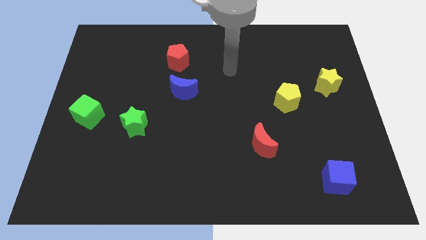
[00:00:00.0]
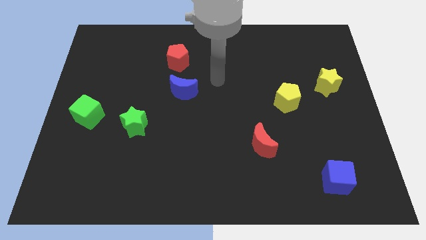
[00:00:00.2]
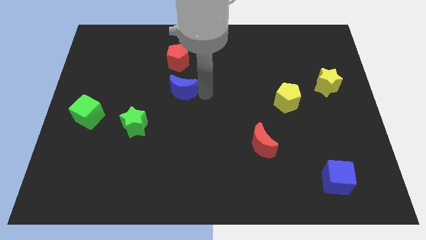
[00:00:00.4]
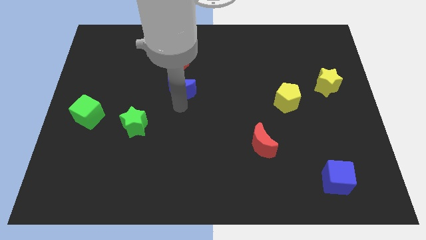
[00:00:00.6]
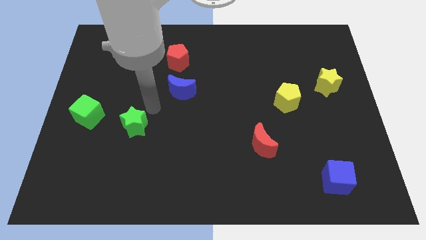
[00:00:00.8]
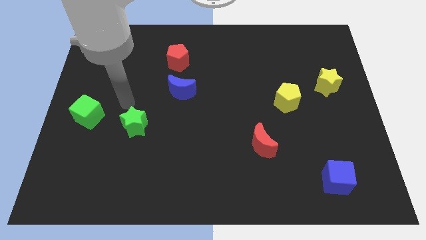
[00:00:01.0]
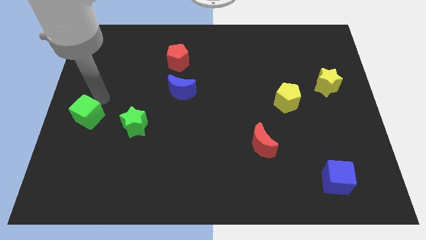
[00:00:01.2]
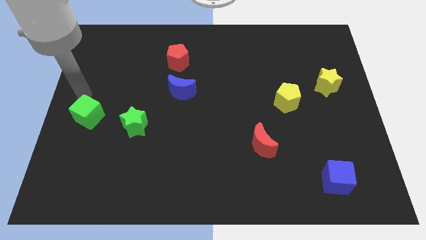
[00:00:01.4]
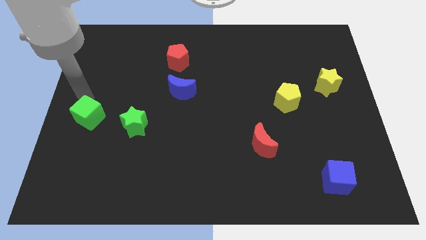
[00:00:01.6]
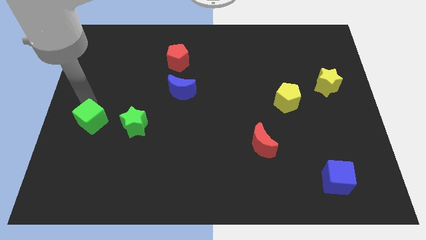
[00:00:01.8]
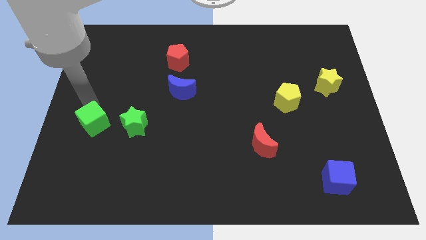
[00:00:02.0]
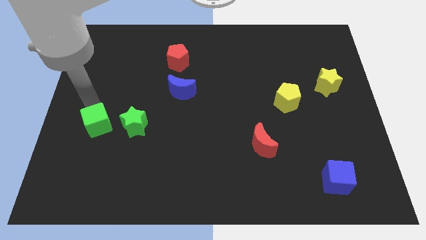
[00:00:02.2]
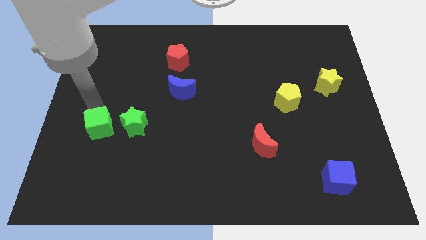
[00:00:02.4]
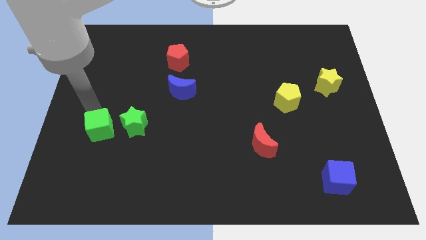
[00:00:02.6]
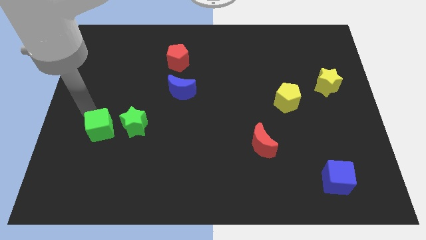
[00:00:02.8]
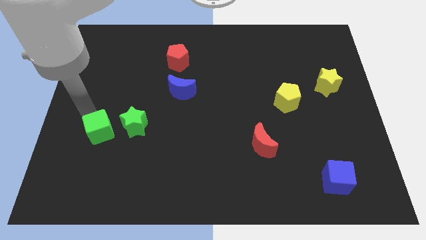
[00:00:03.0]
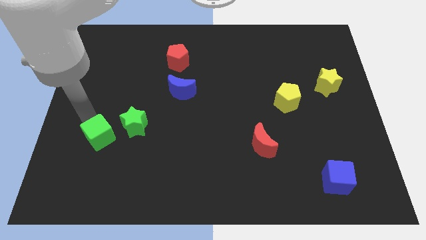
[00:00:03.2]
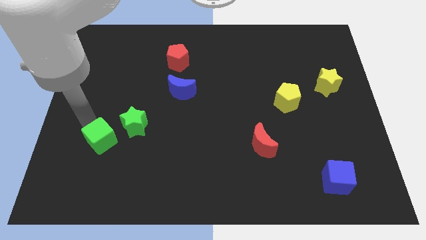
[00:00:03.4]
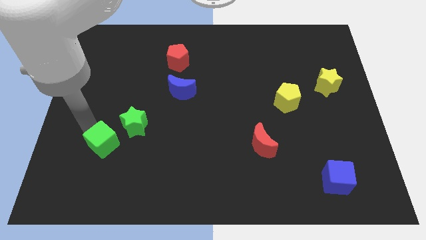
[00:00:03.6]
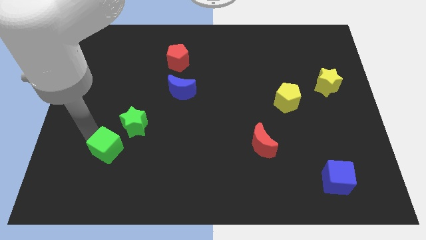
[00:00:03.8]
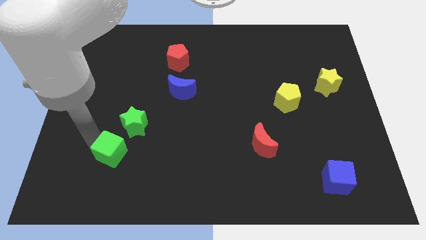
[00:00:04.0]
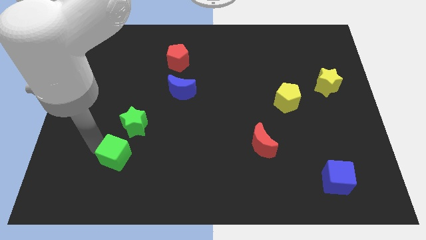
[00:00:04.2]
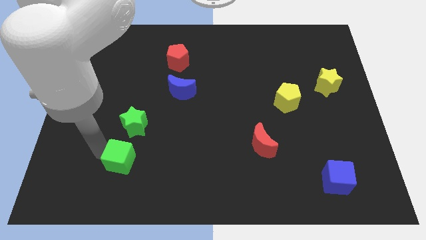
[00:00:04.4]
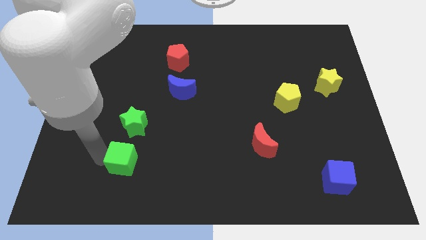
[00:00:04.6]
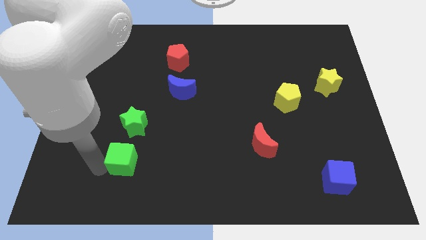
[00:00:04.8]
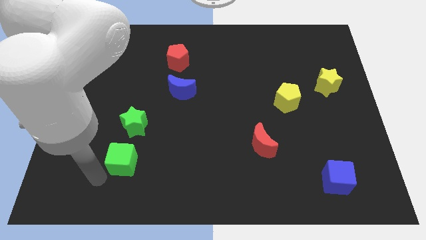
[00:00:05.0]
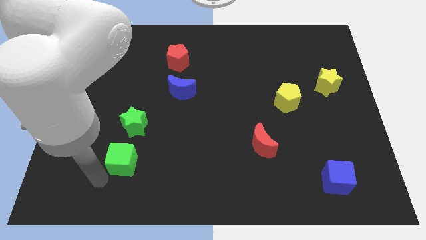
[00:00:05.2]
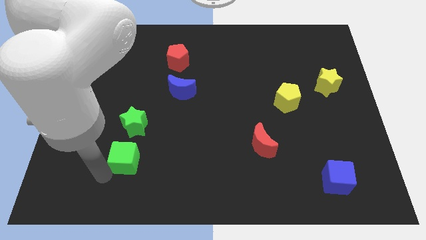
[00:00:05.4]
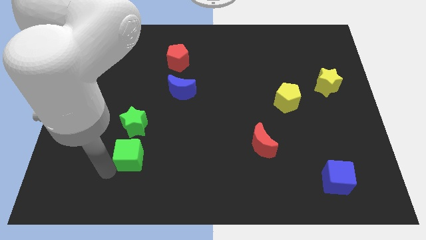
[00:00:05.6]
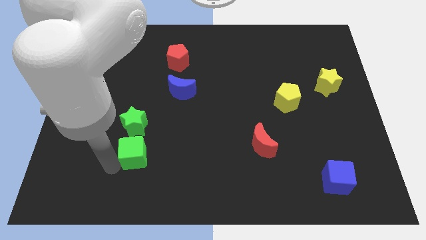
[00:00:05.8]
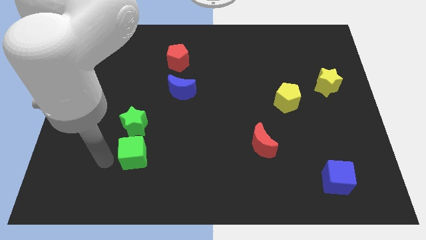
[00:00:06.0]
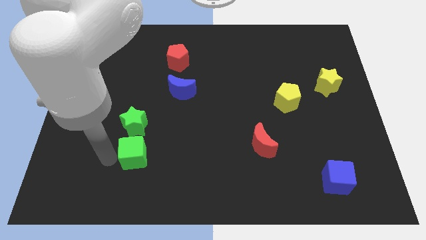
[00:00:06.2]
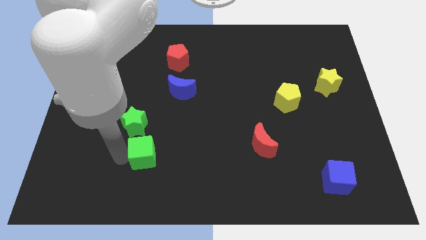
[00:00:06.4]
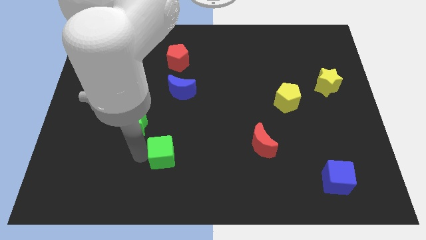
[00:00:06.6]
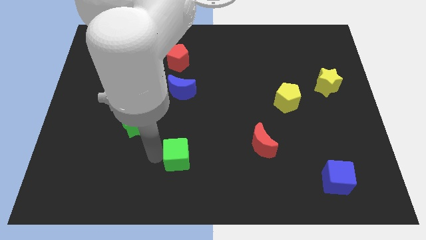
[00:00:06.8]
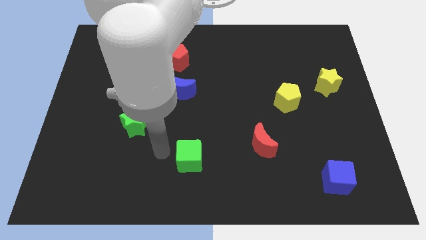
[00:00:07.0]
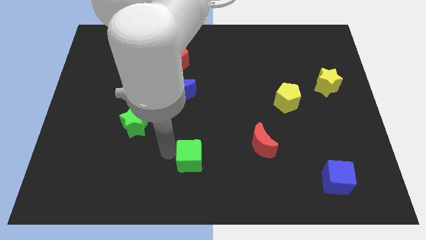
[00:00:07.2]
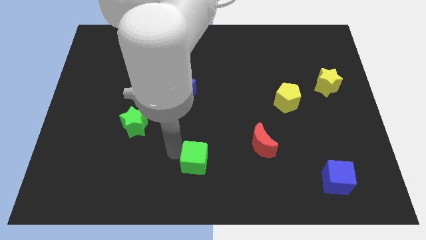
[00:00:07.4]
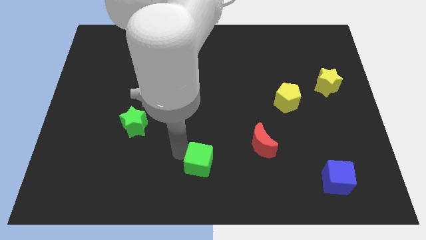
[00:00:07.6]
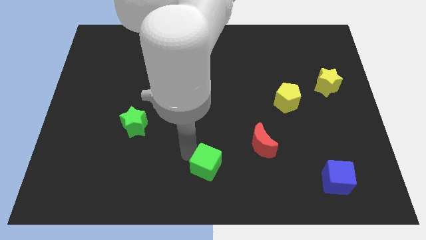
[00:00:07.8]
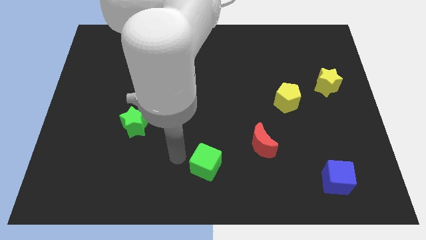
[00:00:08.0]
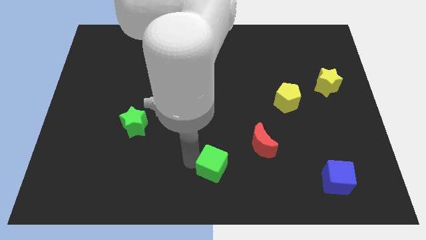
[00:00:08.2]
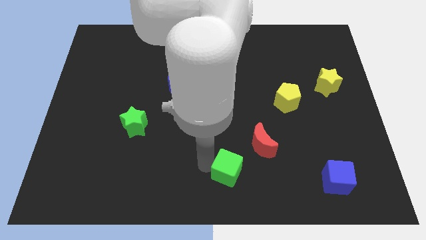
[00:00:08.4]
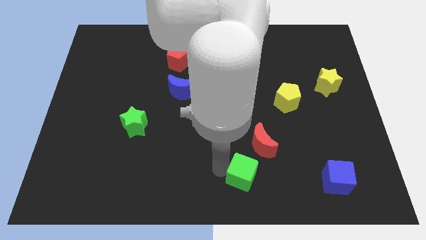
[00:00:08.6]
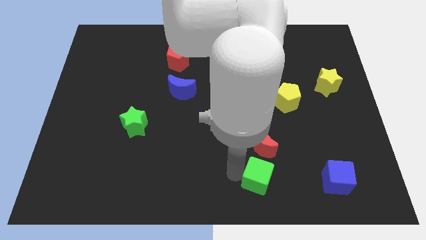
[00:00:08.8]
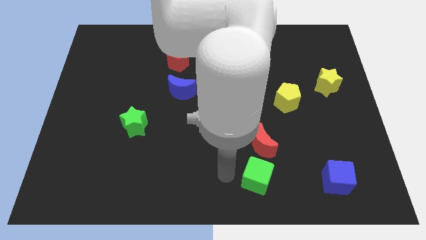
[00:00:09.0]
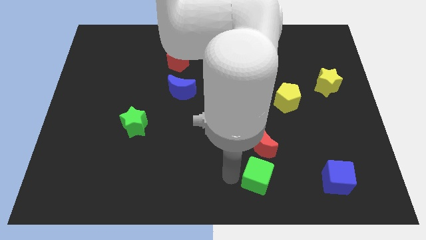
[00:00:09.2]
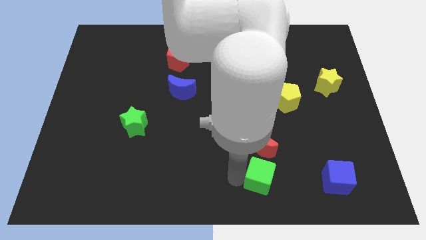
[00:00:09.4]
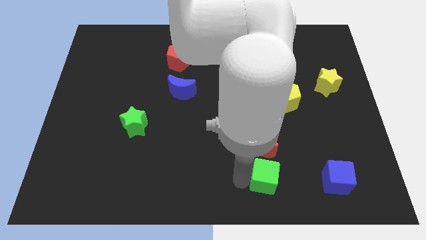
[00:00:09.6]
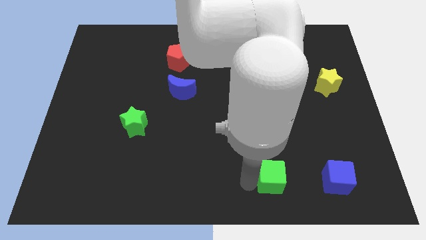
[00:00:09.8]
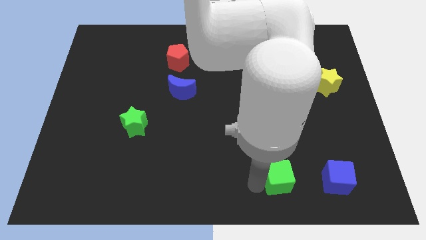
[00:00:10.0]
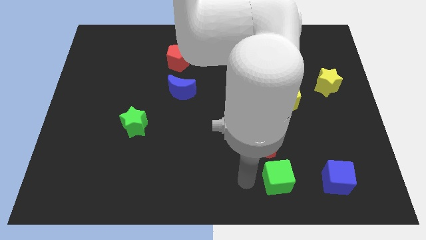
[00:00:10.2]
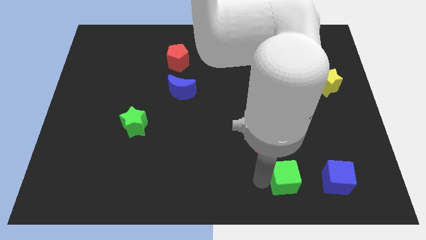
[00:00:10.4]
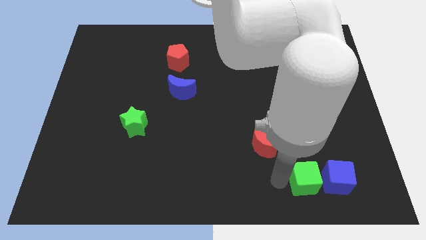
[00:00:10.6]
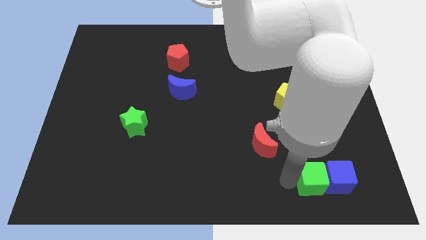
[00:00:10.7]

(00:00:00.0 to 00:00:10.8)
move the green cube next to the blue cube

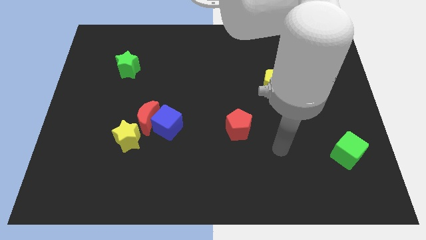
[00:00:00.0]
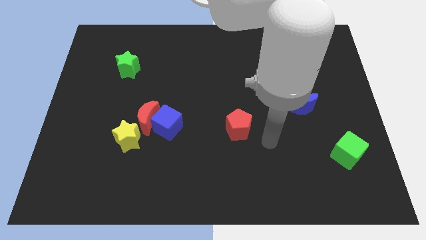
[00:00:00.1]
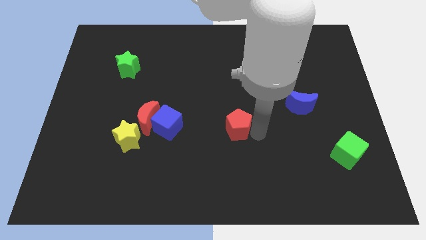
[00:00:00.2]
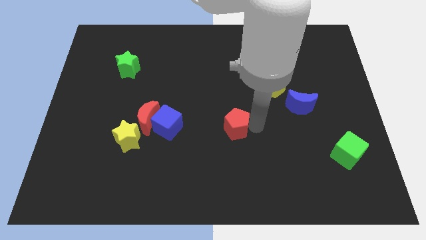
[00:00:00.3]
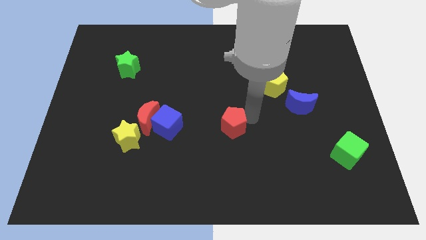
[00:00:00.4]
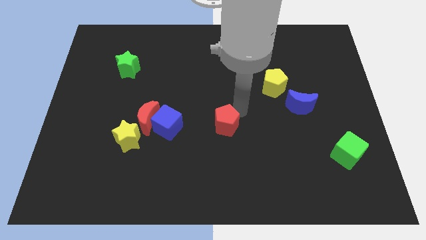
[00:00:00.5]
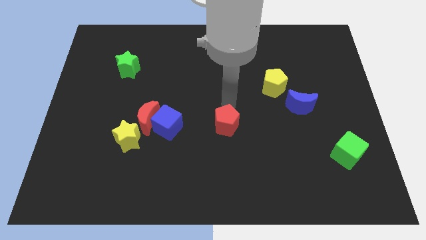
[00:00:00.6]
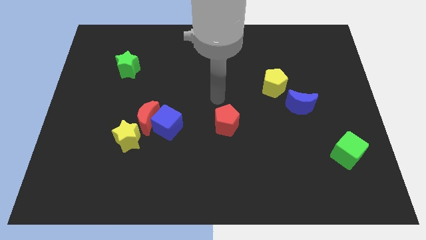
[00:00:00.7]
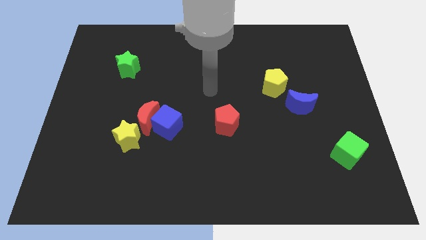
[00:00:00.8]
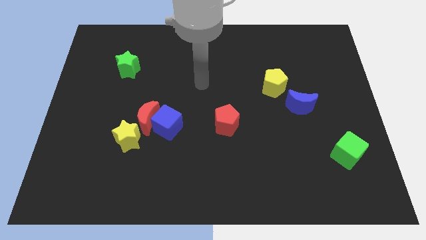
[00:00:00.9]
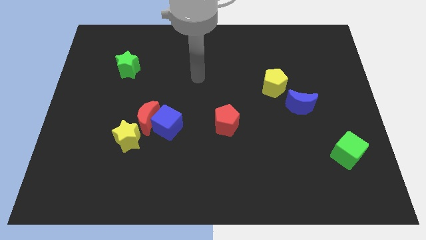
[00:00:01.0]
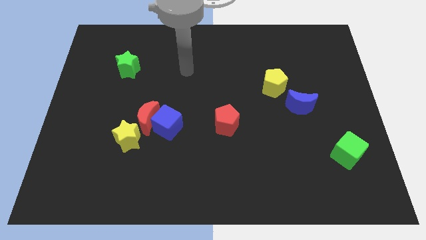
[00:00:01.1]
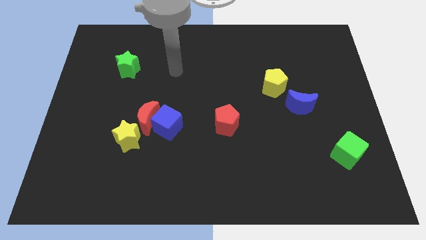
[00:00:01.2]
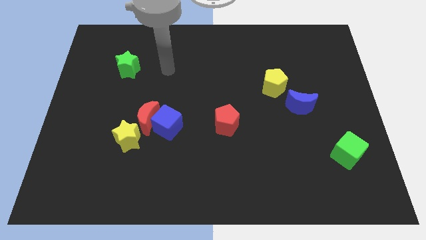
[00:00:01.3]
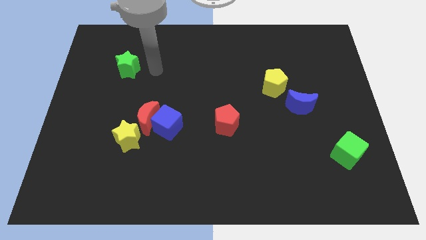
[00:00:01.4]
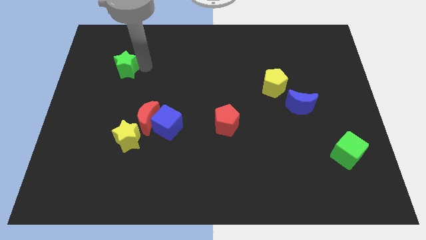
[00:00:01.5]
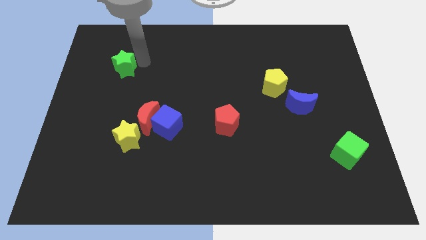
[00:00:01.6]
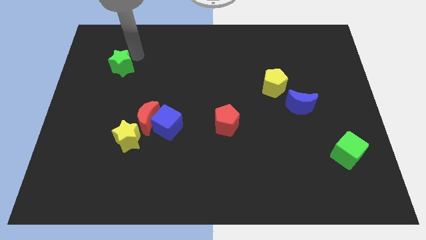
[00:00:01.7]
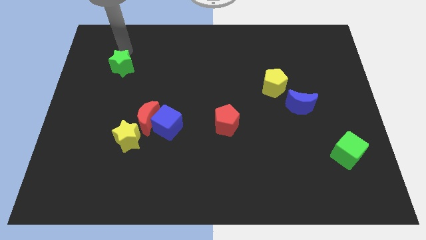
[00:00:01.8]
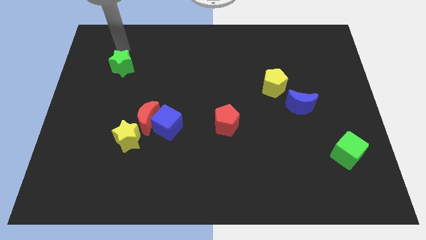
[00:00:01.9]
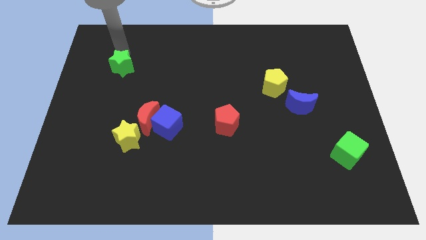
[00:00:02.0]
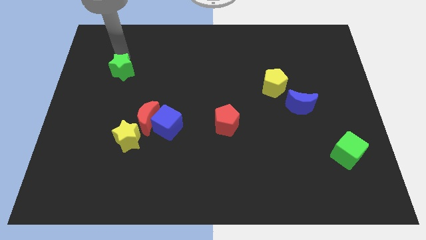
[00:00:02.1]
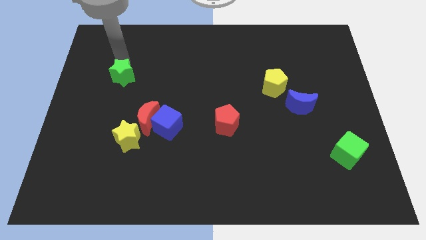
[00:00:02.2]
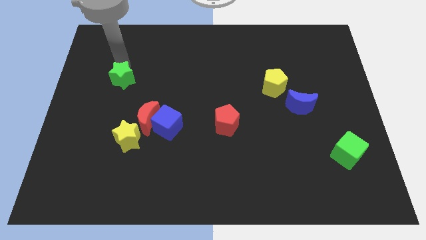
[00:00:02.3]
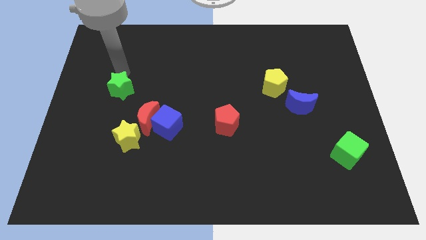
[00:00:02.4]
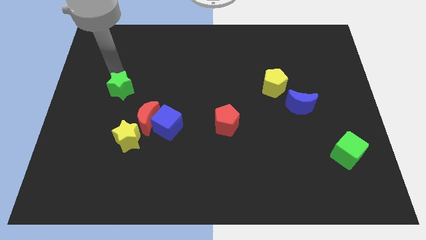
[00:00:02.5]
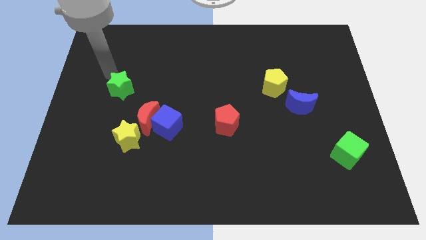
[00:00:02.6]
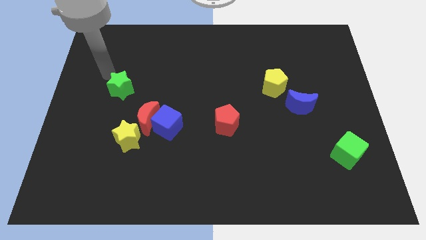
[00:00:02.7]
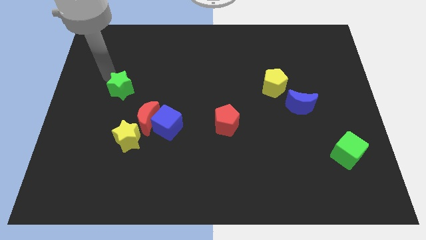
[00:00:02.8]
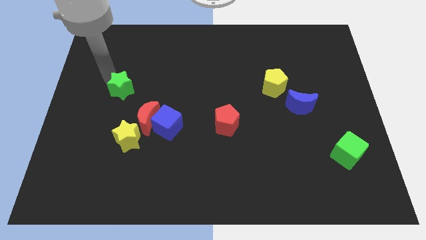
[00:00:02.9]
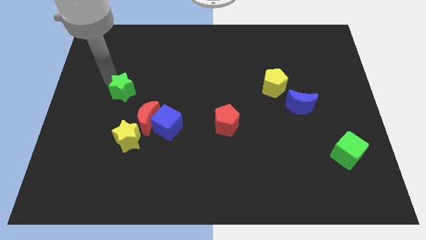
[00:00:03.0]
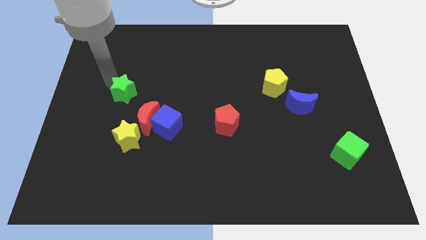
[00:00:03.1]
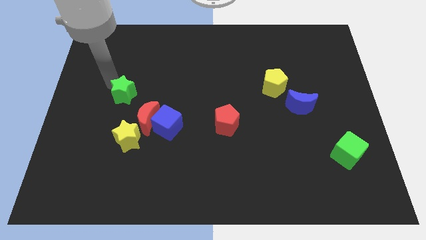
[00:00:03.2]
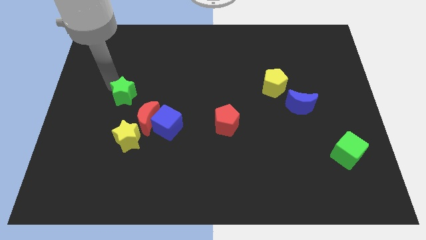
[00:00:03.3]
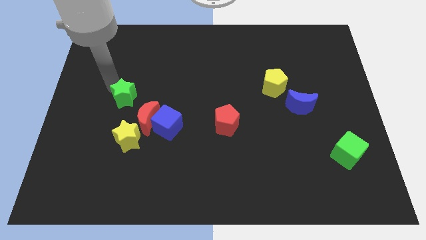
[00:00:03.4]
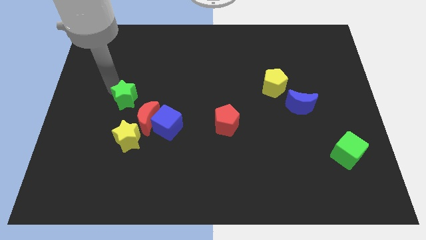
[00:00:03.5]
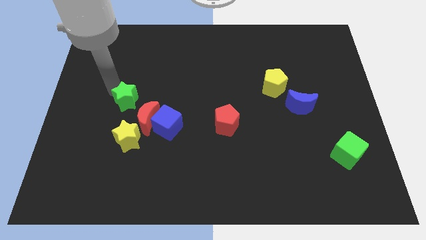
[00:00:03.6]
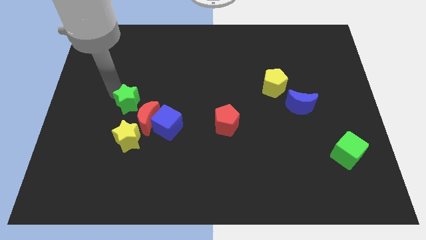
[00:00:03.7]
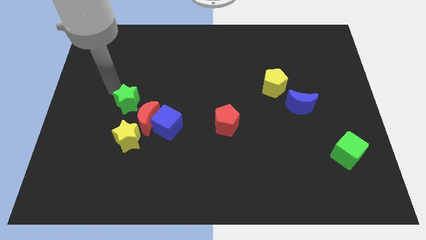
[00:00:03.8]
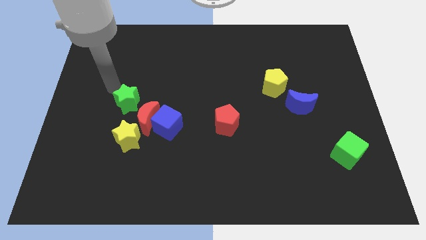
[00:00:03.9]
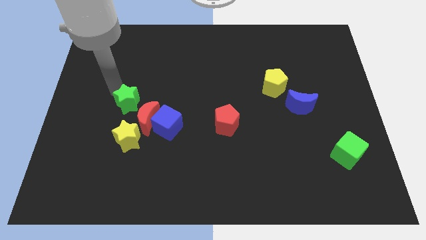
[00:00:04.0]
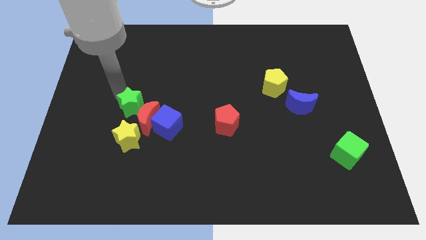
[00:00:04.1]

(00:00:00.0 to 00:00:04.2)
push the green star to the red moon
